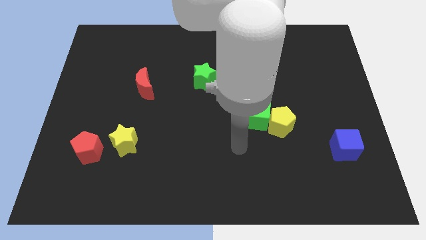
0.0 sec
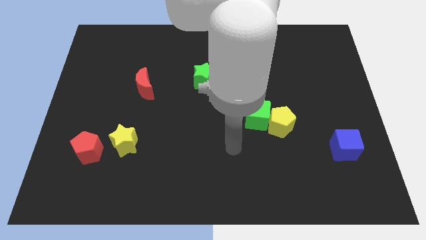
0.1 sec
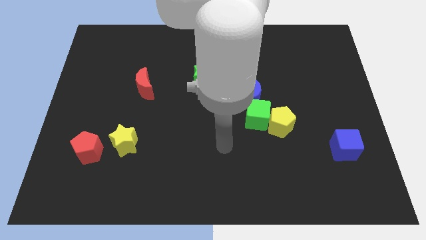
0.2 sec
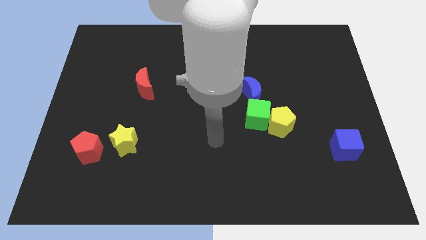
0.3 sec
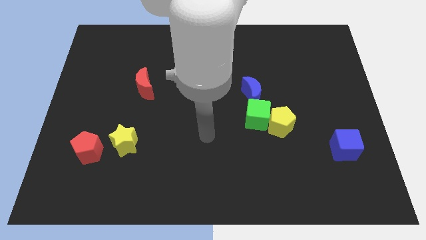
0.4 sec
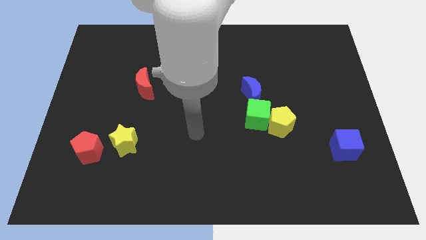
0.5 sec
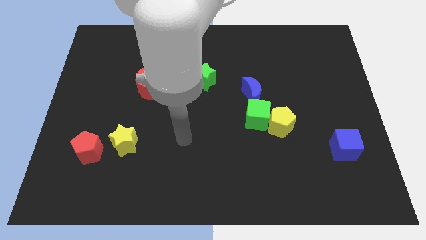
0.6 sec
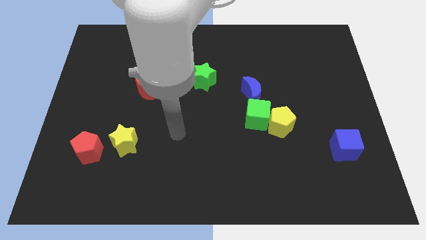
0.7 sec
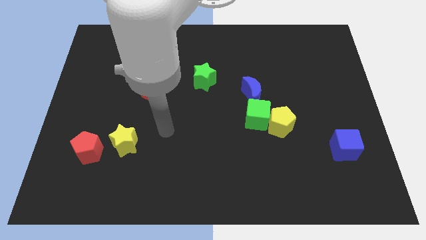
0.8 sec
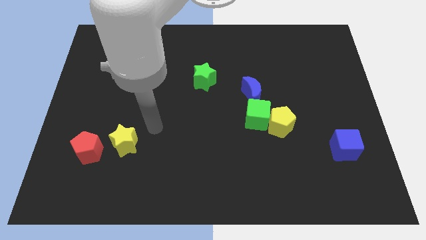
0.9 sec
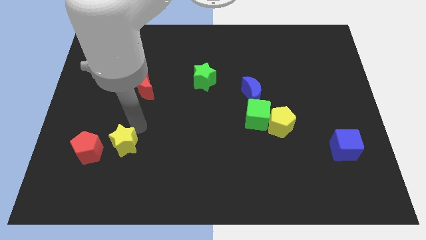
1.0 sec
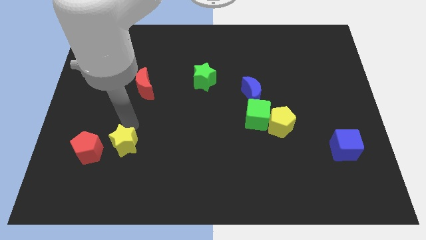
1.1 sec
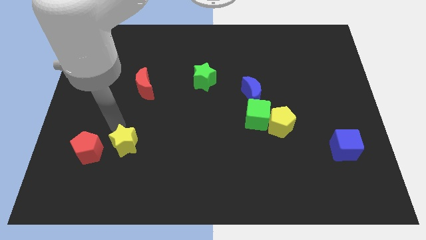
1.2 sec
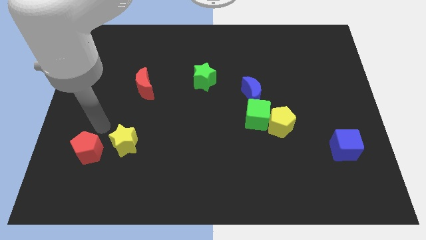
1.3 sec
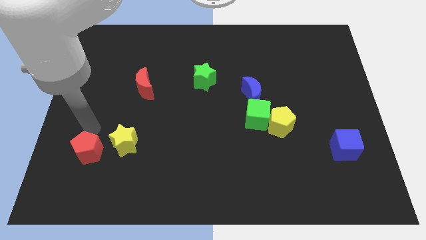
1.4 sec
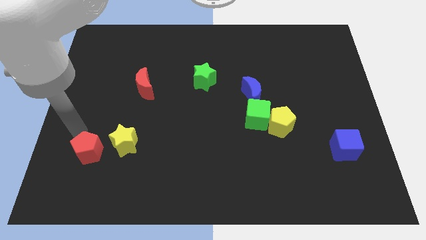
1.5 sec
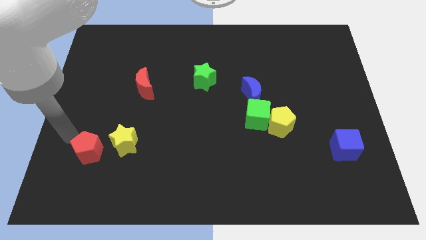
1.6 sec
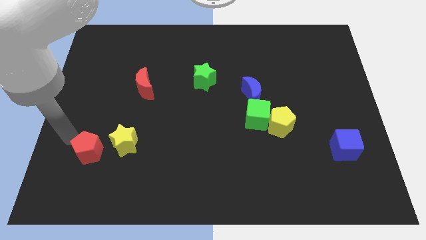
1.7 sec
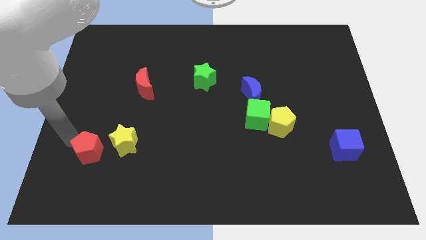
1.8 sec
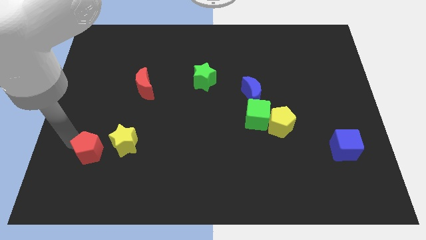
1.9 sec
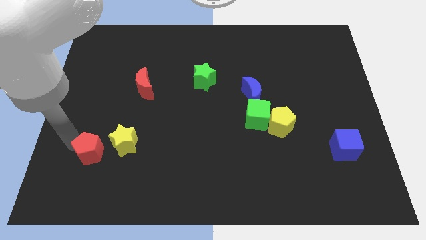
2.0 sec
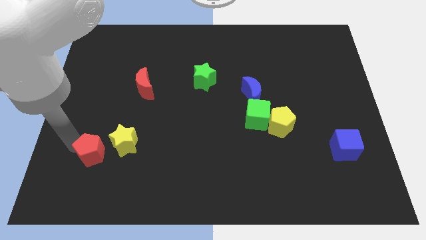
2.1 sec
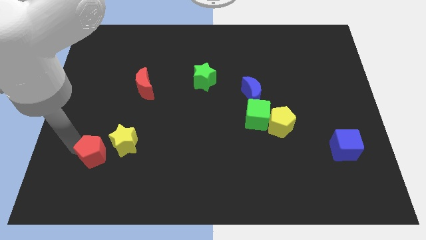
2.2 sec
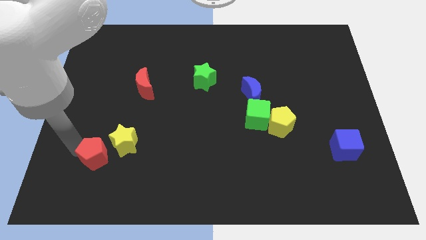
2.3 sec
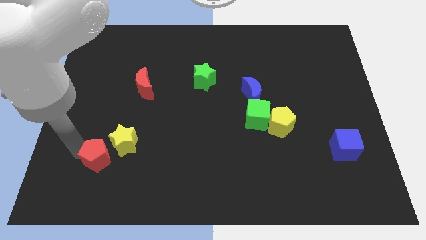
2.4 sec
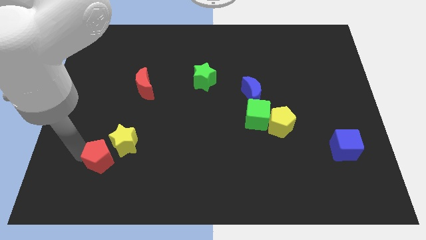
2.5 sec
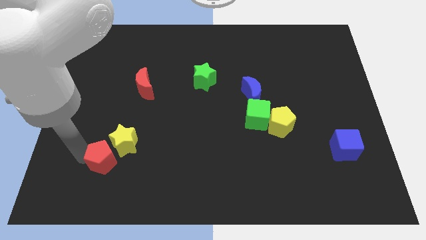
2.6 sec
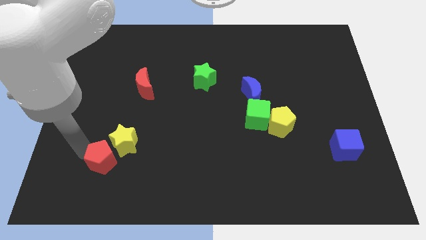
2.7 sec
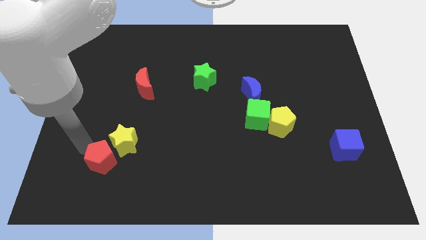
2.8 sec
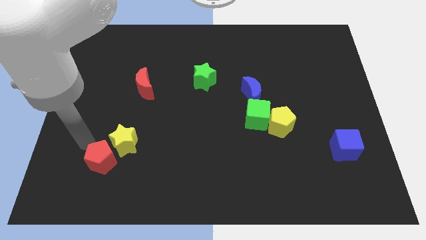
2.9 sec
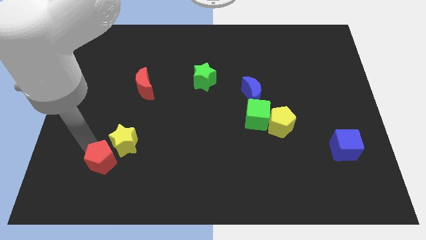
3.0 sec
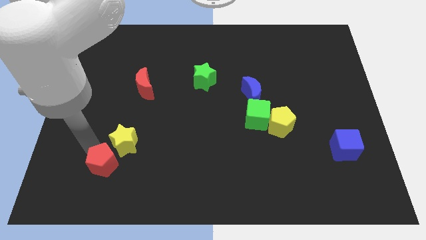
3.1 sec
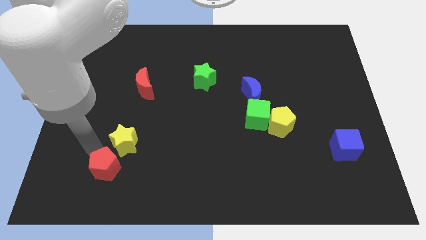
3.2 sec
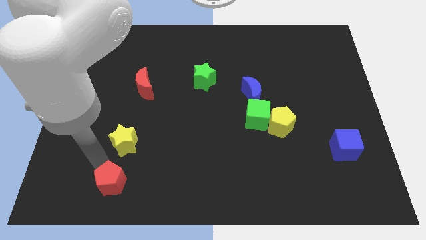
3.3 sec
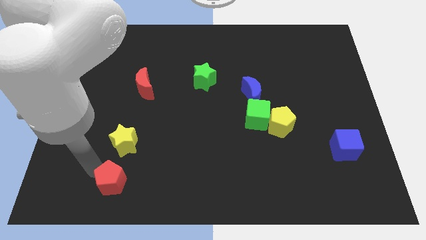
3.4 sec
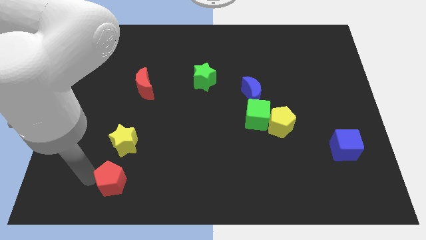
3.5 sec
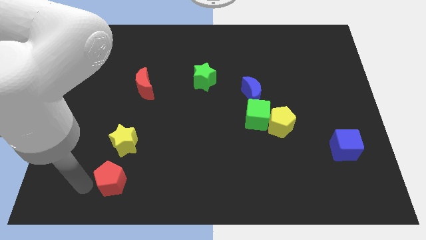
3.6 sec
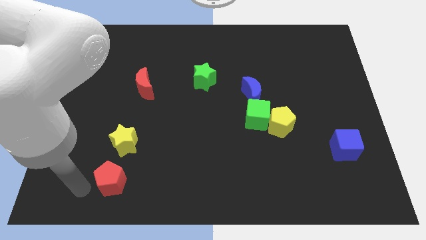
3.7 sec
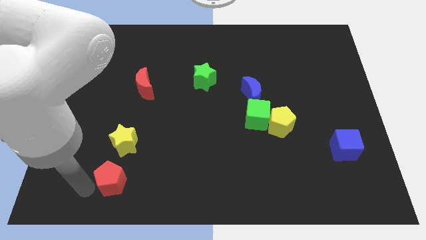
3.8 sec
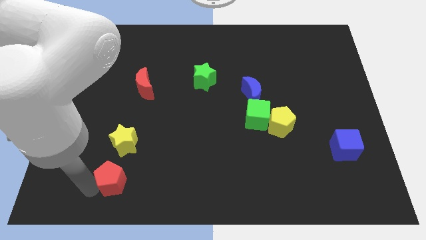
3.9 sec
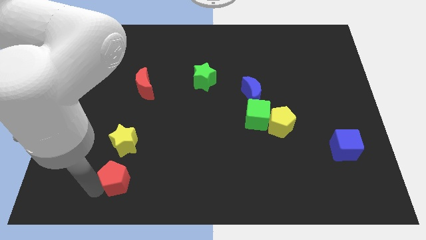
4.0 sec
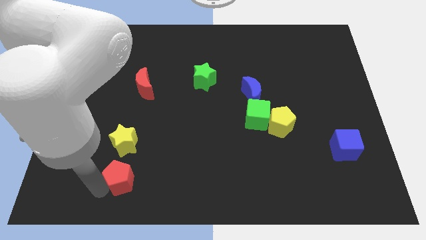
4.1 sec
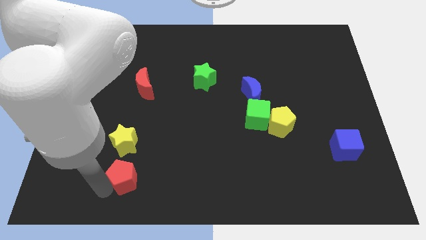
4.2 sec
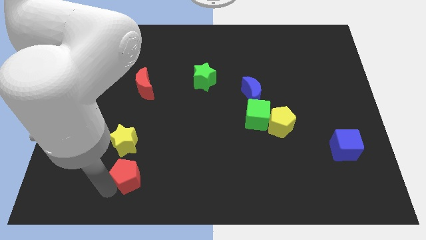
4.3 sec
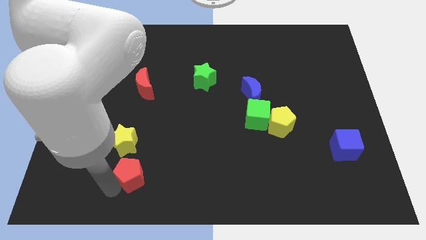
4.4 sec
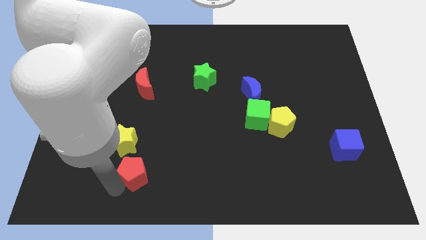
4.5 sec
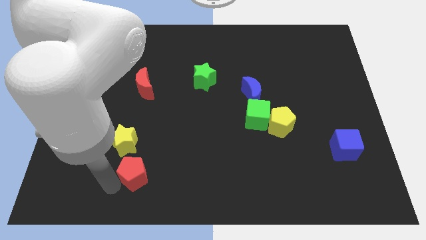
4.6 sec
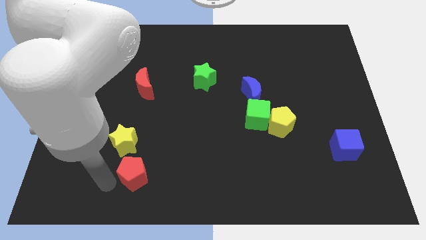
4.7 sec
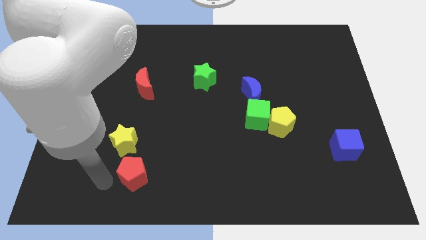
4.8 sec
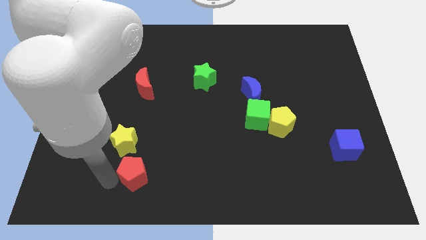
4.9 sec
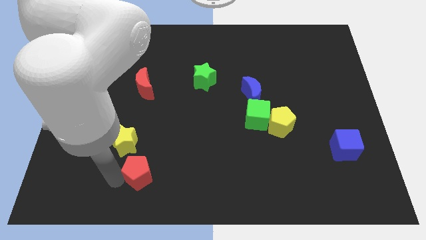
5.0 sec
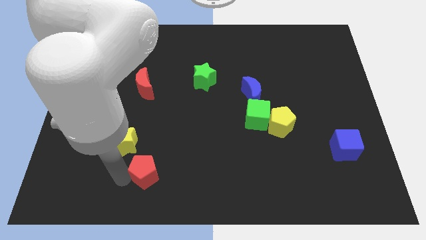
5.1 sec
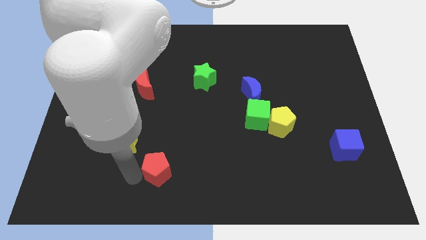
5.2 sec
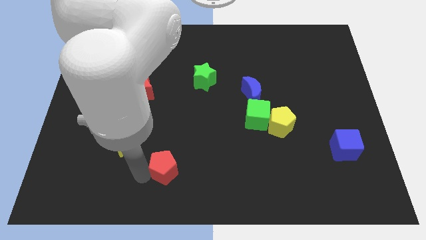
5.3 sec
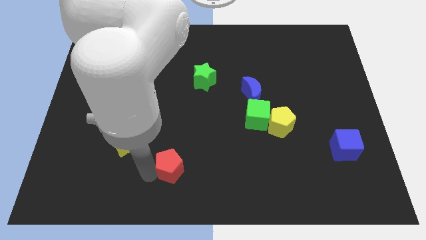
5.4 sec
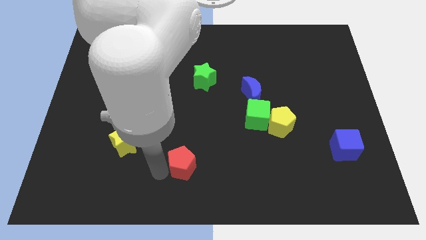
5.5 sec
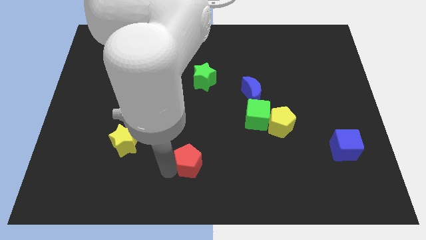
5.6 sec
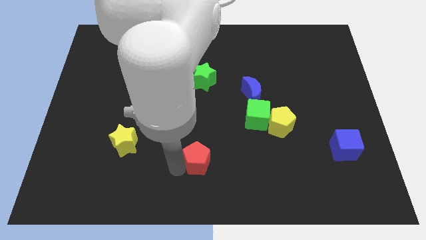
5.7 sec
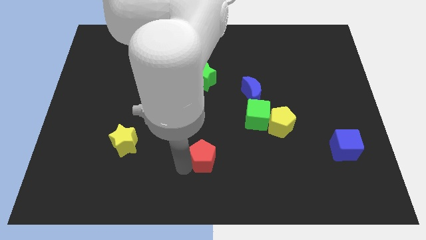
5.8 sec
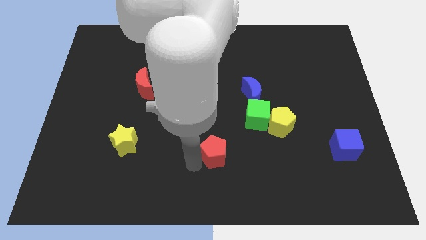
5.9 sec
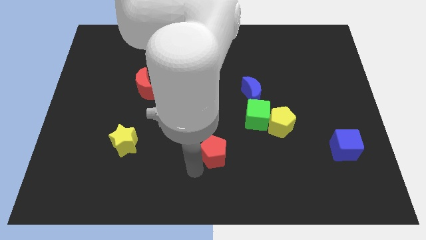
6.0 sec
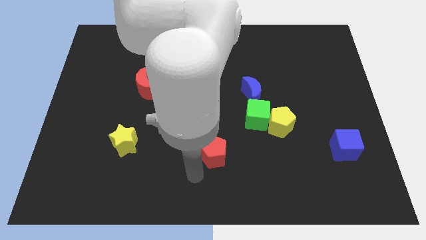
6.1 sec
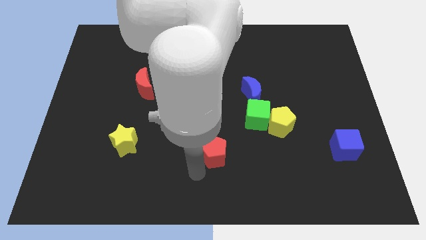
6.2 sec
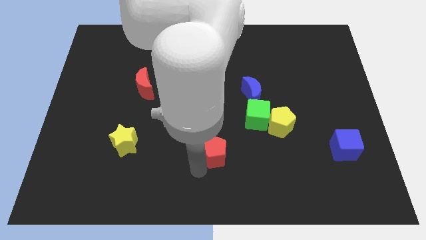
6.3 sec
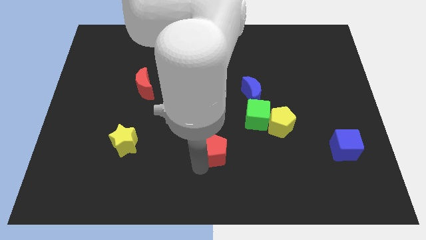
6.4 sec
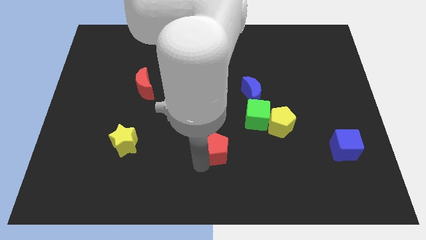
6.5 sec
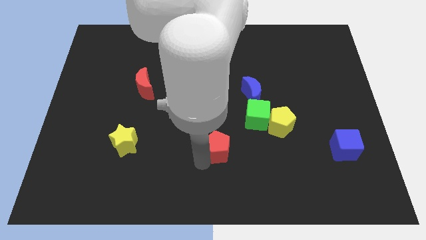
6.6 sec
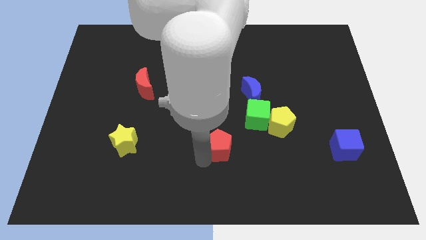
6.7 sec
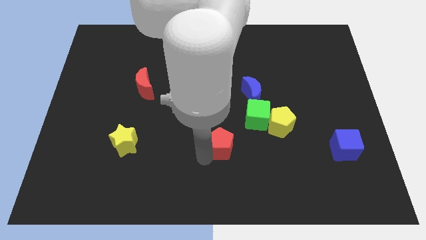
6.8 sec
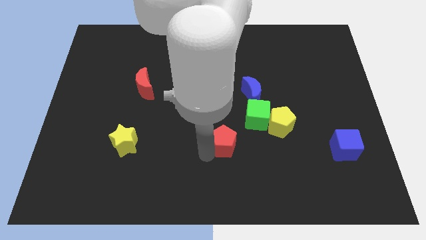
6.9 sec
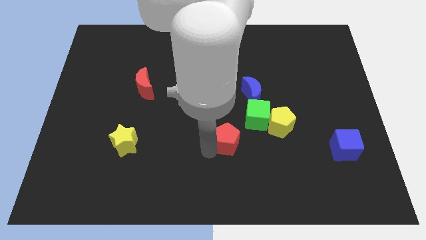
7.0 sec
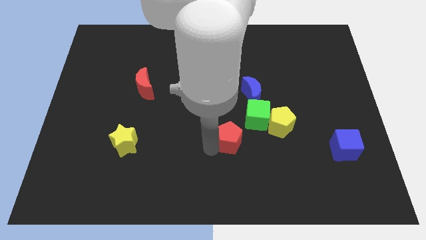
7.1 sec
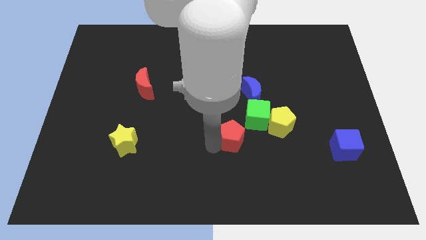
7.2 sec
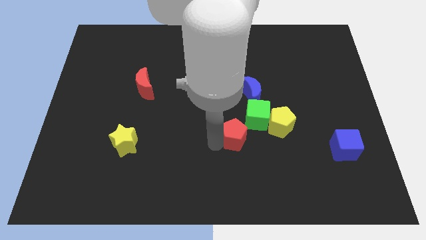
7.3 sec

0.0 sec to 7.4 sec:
put the red pentagon to the bottom side of the blue moon
